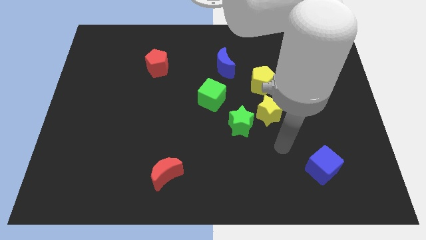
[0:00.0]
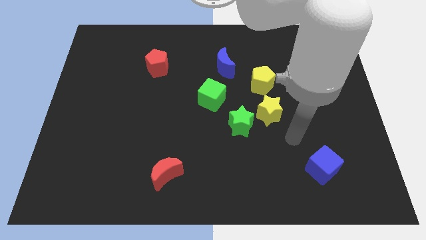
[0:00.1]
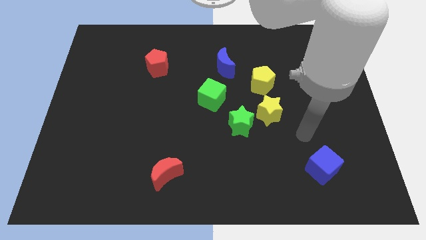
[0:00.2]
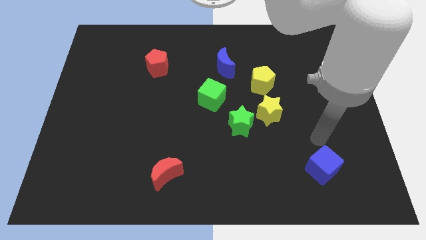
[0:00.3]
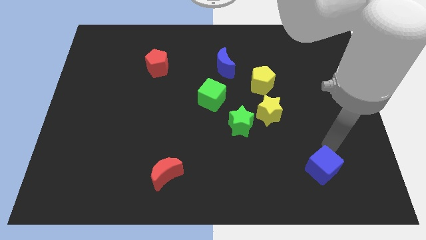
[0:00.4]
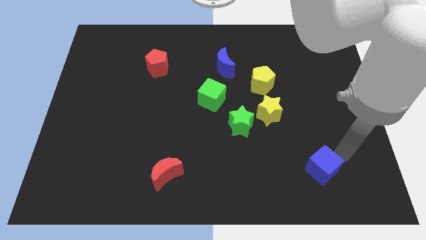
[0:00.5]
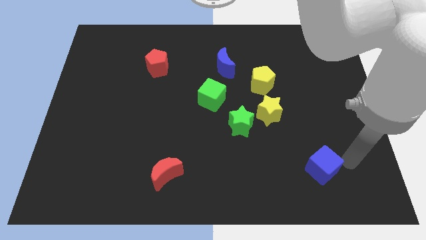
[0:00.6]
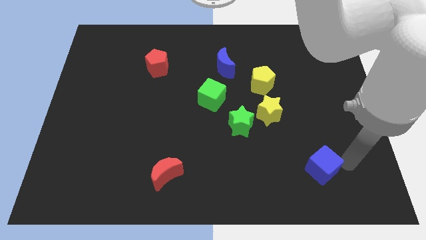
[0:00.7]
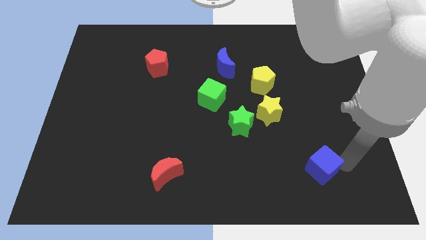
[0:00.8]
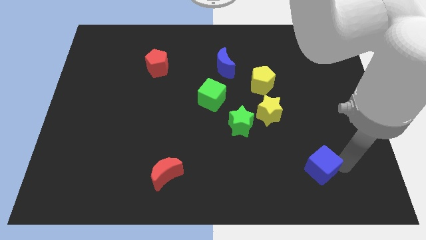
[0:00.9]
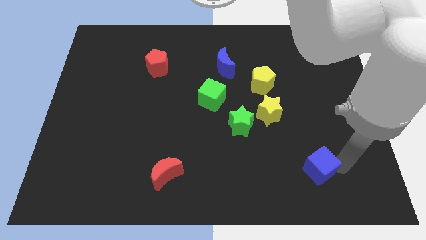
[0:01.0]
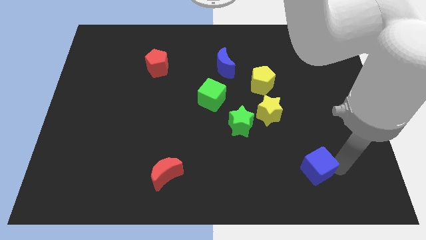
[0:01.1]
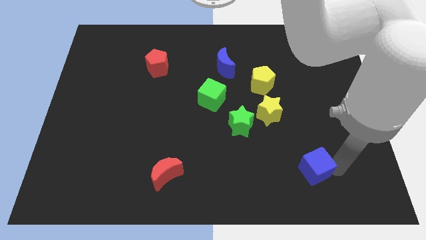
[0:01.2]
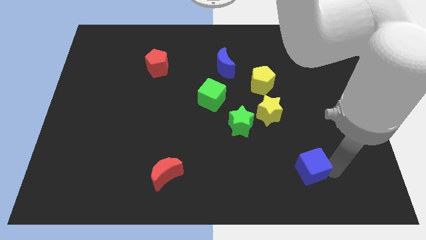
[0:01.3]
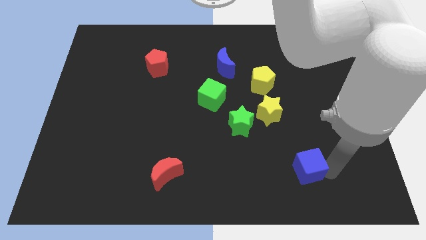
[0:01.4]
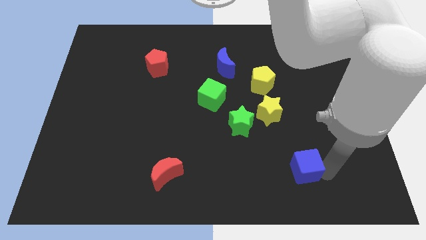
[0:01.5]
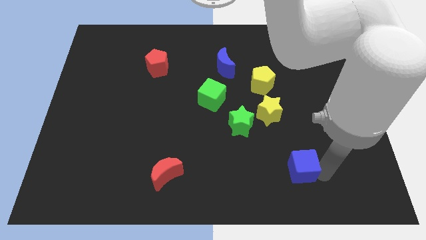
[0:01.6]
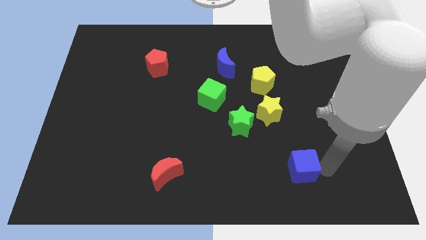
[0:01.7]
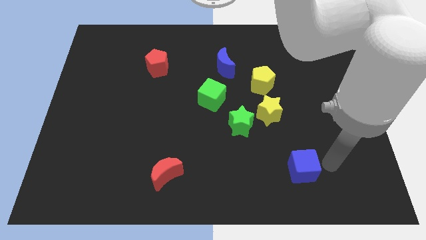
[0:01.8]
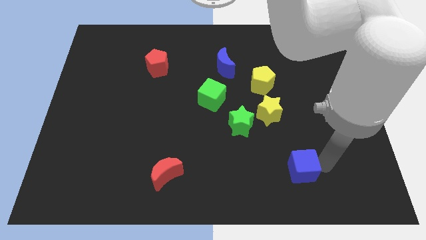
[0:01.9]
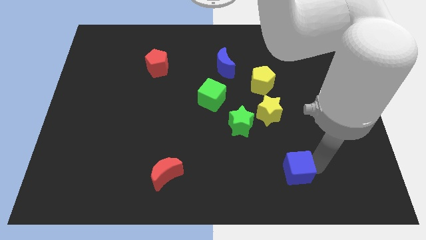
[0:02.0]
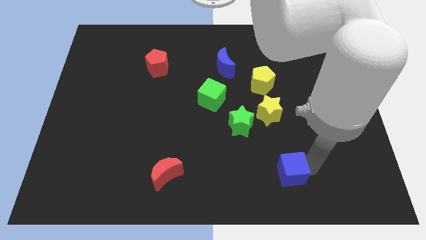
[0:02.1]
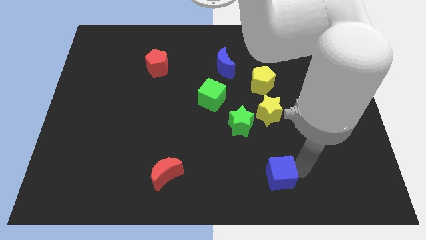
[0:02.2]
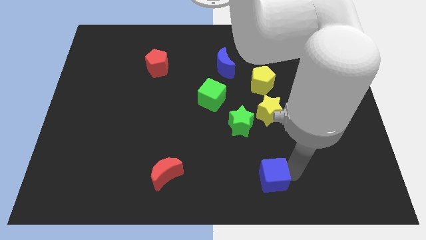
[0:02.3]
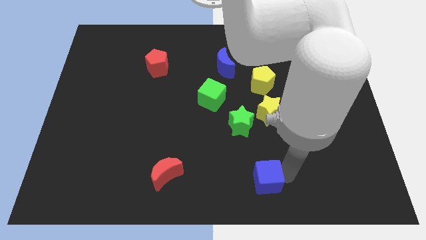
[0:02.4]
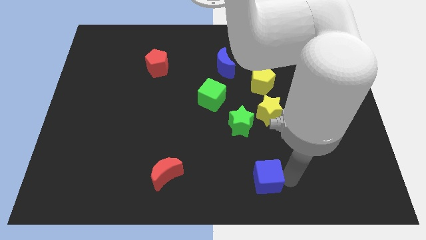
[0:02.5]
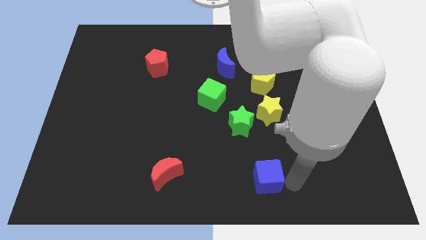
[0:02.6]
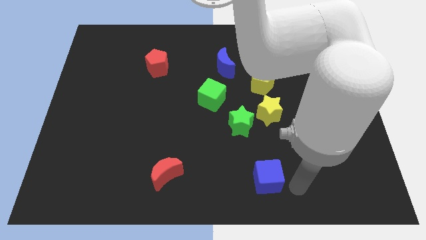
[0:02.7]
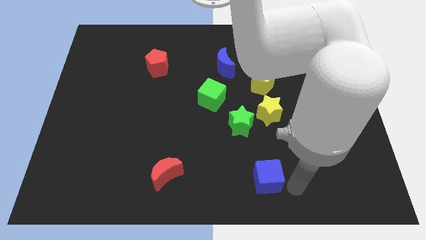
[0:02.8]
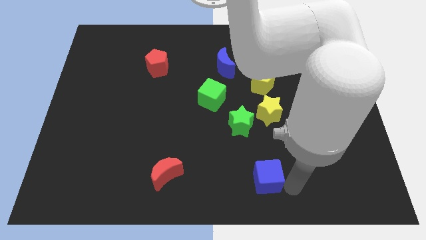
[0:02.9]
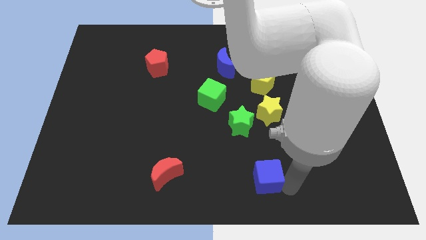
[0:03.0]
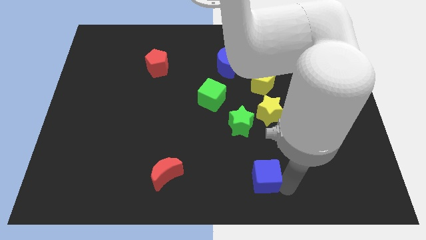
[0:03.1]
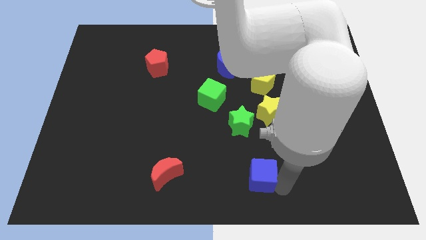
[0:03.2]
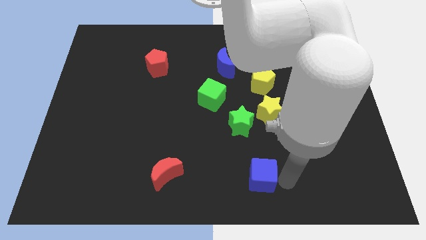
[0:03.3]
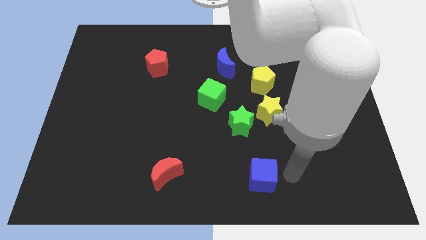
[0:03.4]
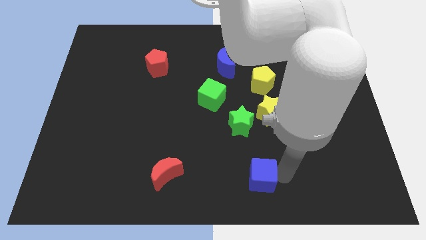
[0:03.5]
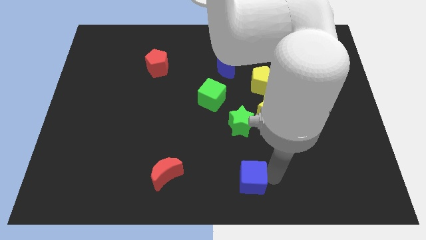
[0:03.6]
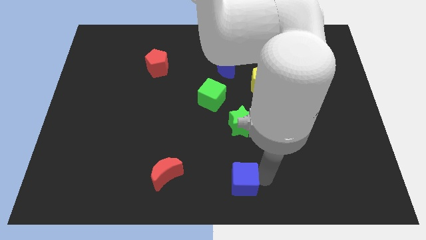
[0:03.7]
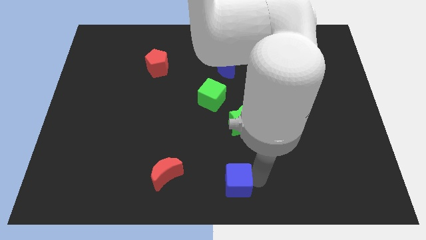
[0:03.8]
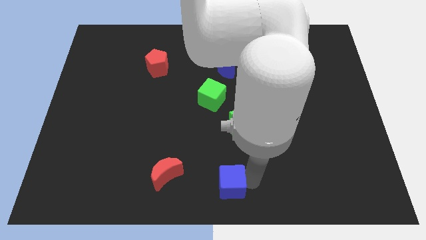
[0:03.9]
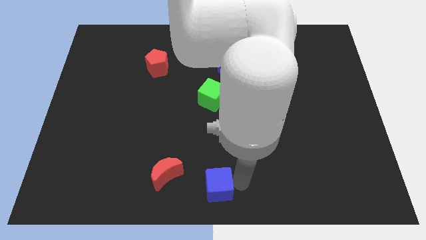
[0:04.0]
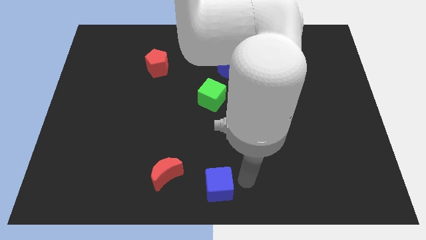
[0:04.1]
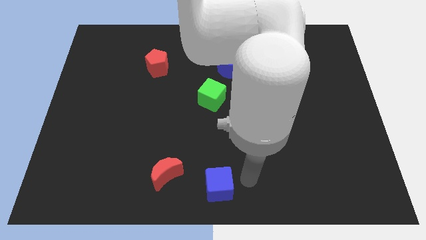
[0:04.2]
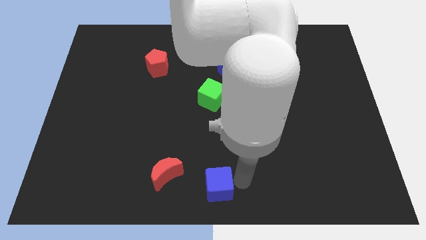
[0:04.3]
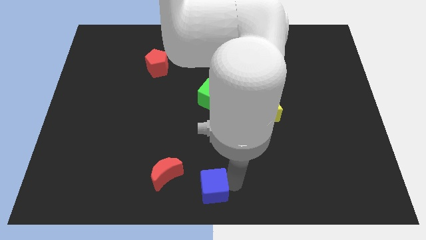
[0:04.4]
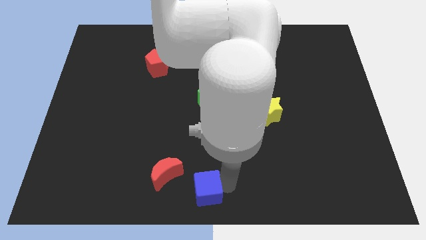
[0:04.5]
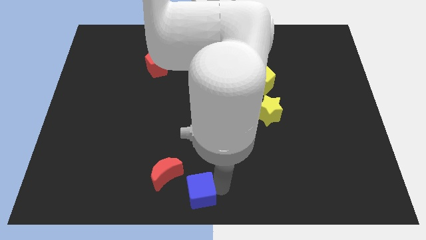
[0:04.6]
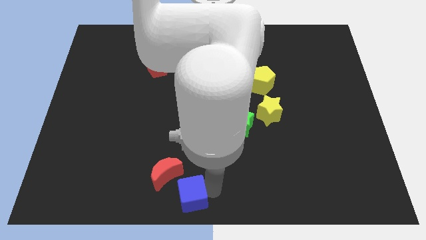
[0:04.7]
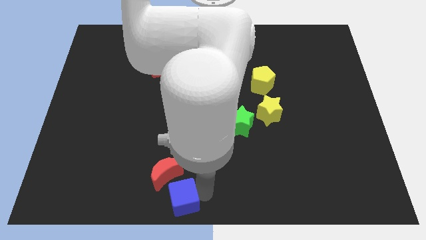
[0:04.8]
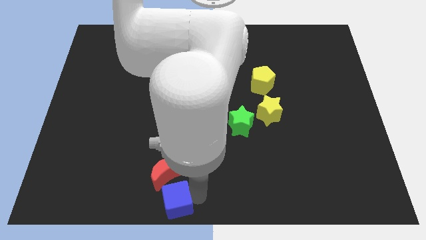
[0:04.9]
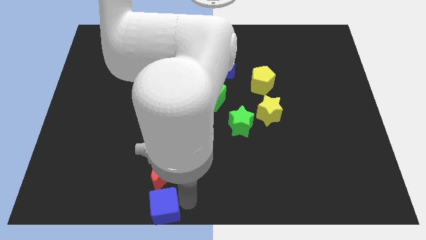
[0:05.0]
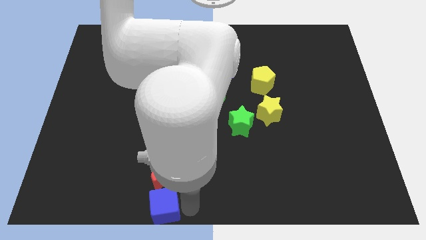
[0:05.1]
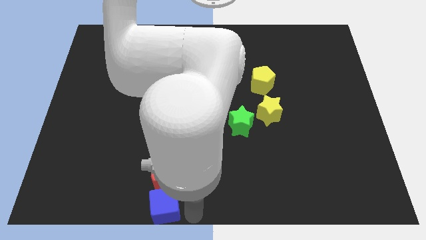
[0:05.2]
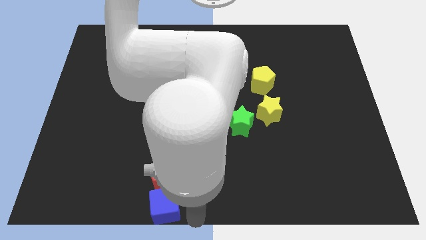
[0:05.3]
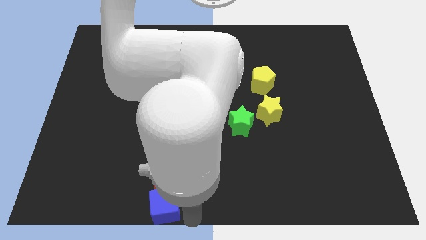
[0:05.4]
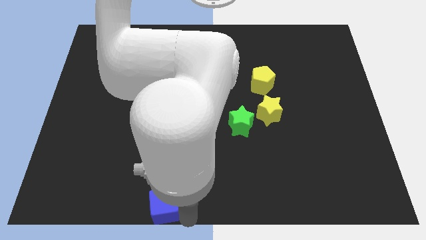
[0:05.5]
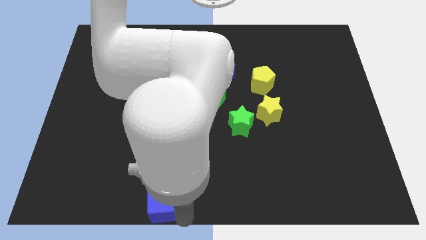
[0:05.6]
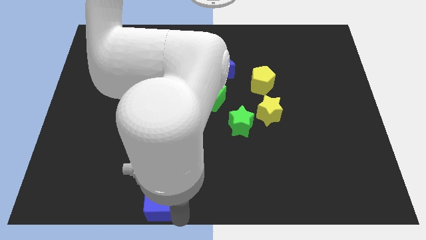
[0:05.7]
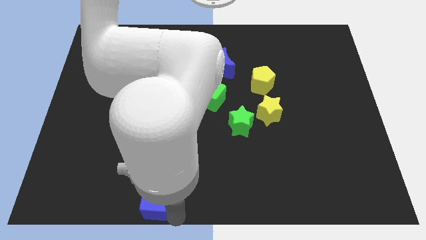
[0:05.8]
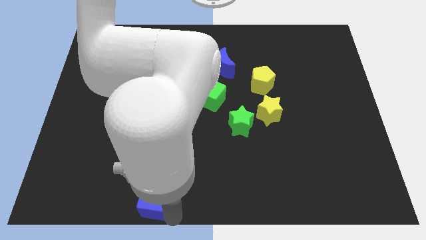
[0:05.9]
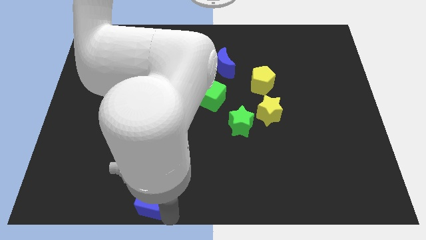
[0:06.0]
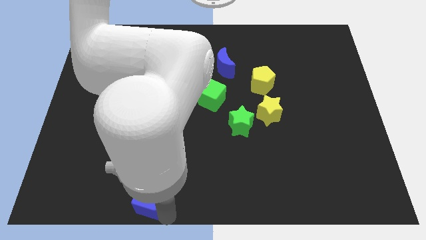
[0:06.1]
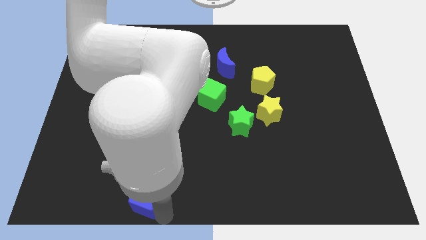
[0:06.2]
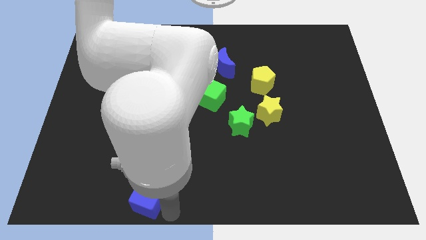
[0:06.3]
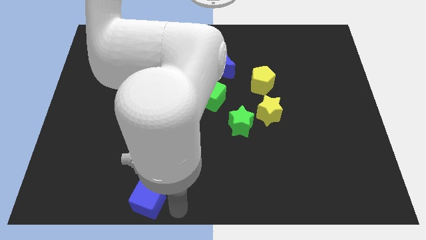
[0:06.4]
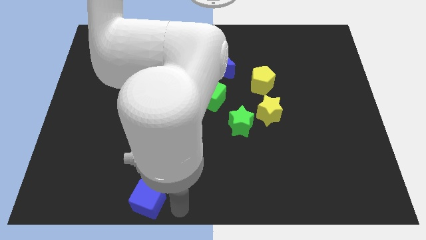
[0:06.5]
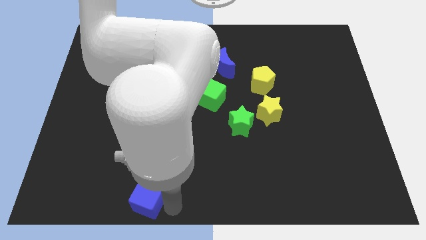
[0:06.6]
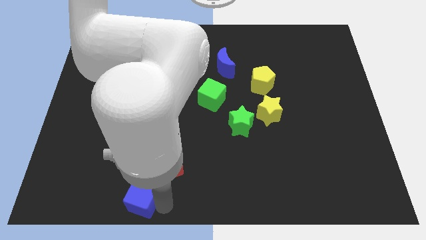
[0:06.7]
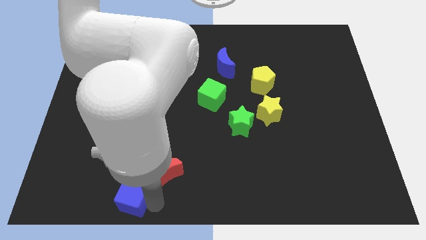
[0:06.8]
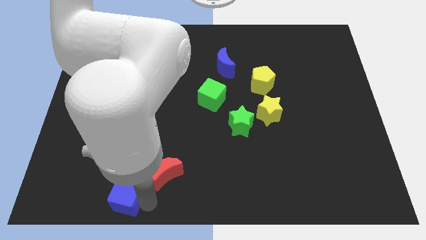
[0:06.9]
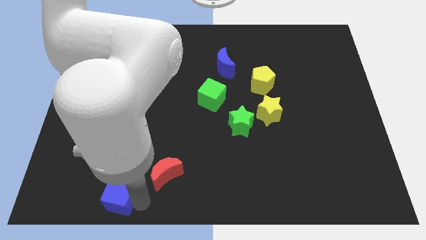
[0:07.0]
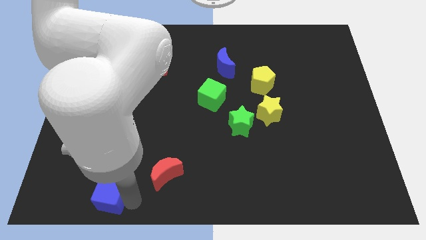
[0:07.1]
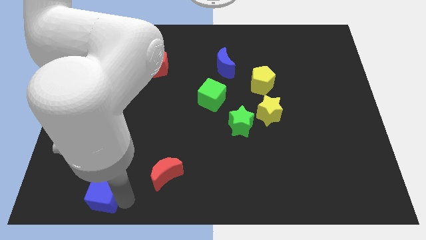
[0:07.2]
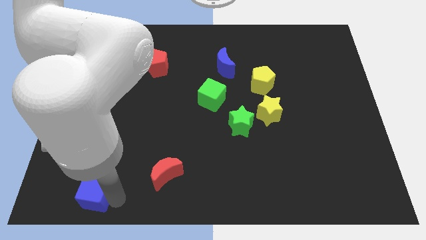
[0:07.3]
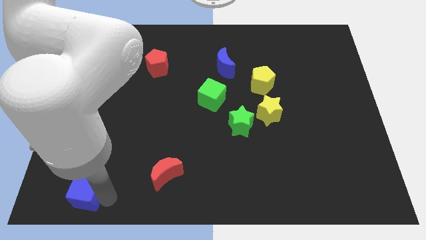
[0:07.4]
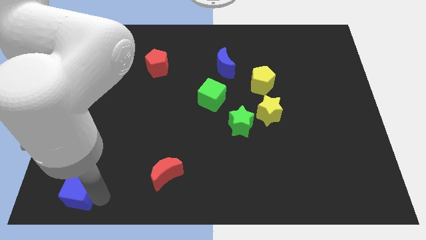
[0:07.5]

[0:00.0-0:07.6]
move the blue cube to the bottom left of the board

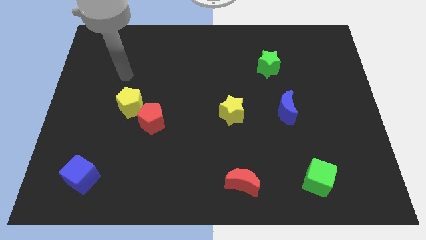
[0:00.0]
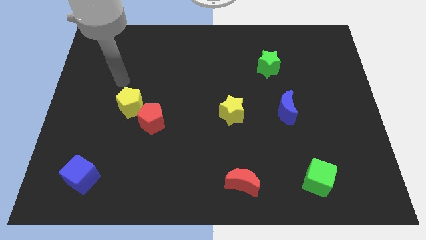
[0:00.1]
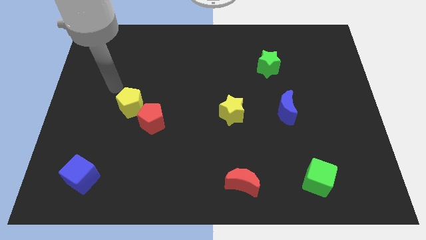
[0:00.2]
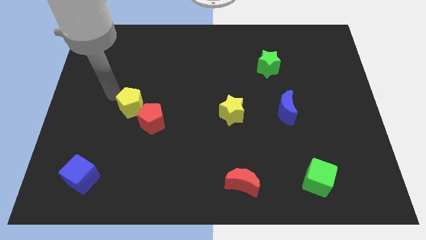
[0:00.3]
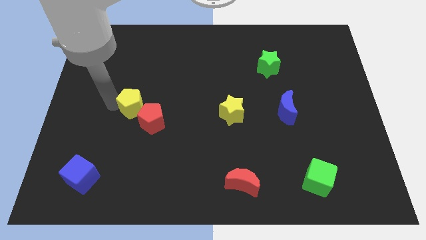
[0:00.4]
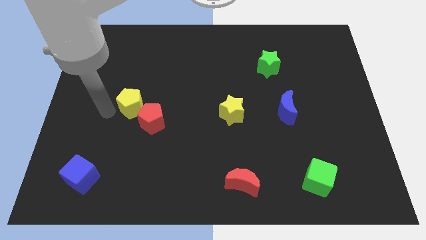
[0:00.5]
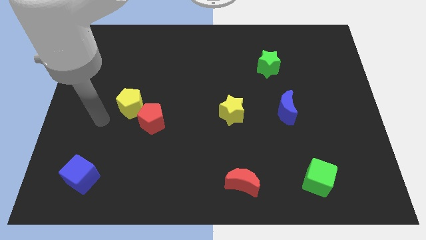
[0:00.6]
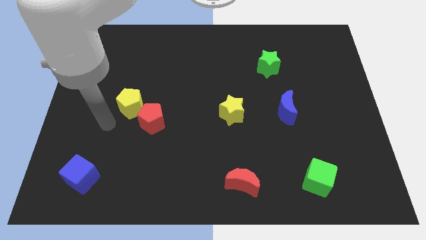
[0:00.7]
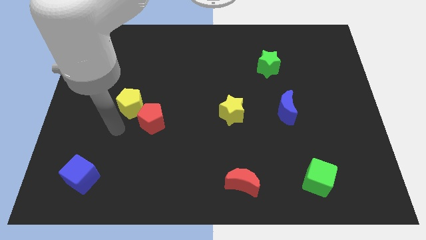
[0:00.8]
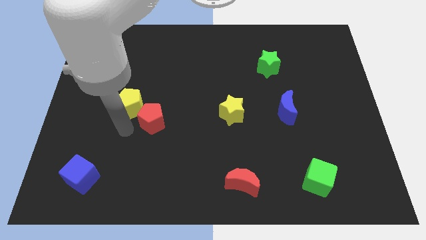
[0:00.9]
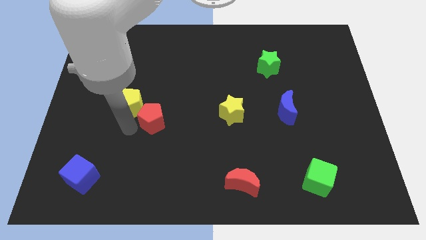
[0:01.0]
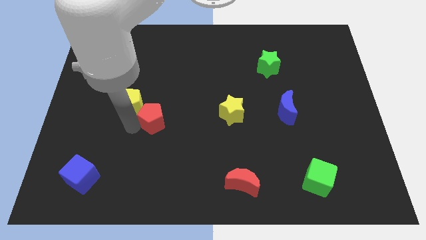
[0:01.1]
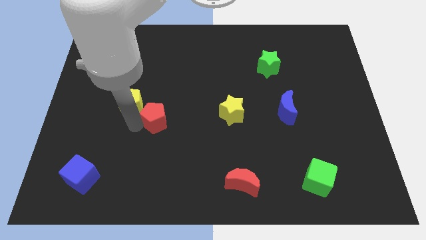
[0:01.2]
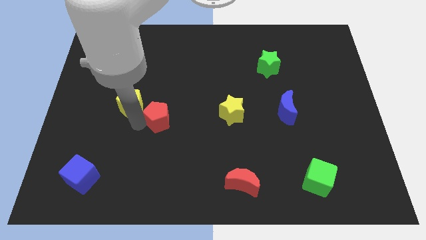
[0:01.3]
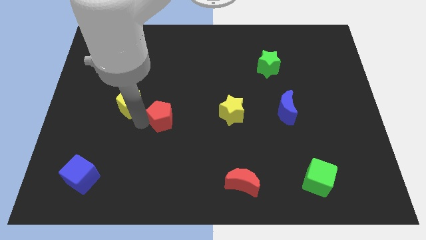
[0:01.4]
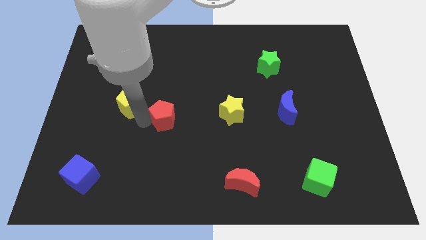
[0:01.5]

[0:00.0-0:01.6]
move the red pentagon to the middle of the board
